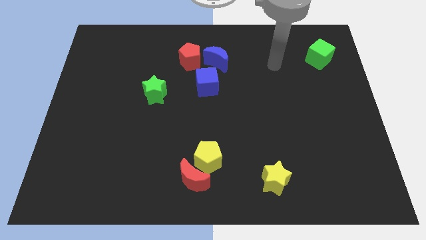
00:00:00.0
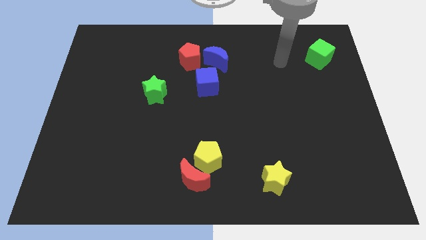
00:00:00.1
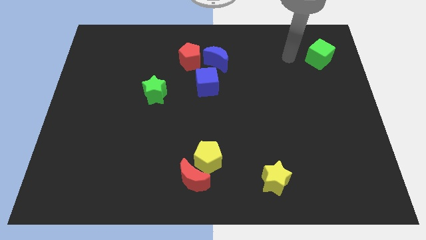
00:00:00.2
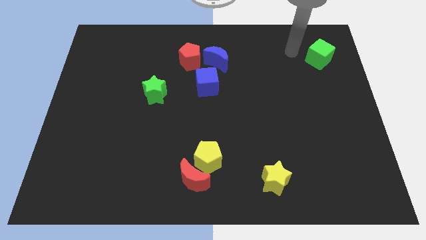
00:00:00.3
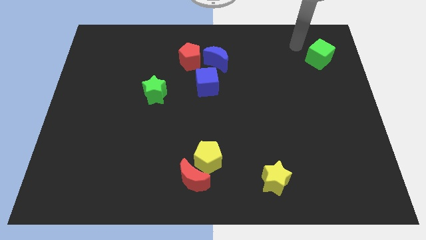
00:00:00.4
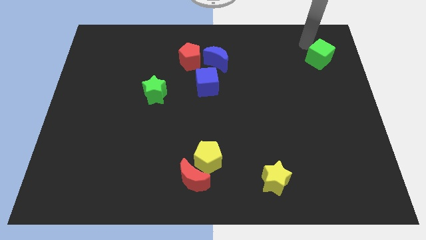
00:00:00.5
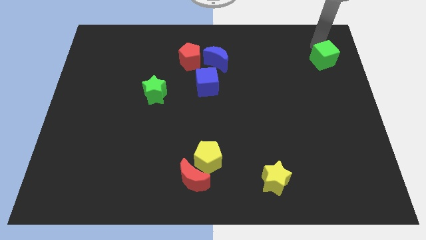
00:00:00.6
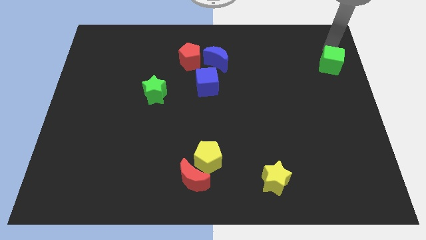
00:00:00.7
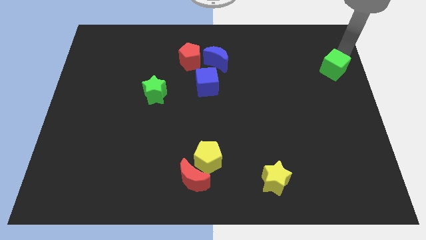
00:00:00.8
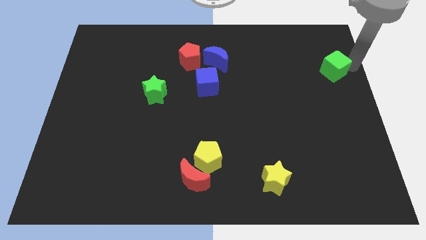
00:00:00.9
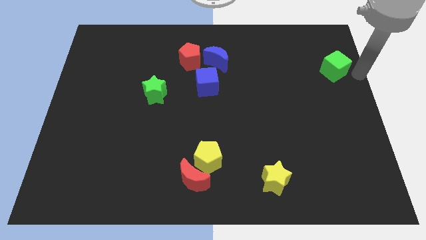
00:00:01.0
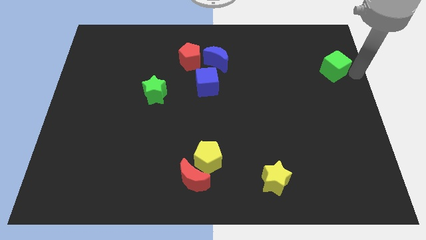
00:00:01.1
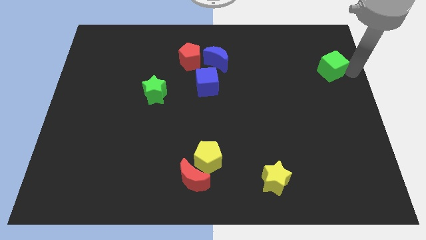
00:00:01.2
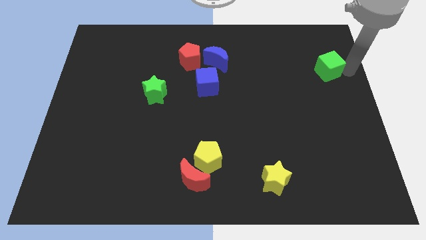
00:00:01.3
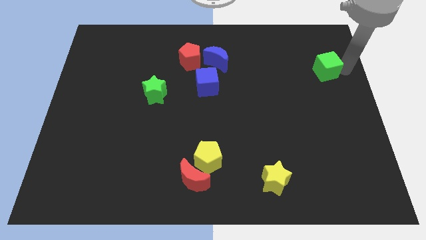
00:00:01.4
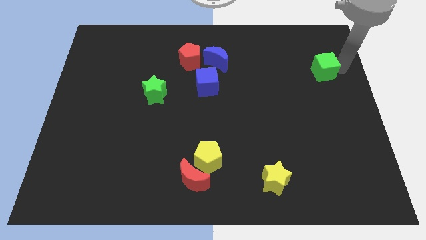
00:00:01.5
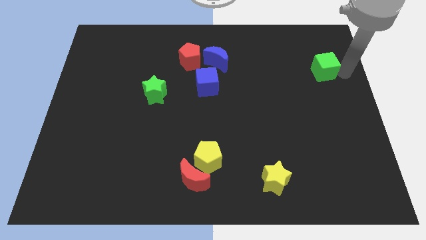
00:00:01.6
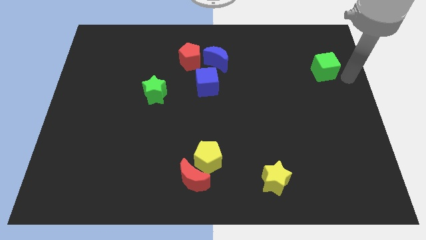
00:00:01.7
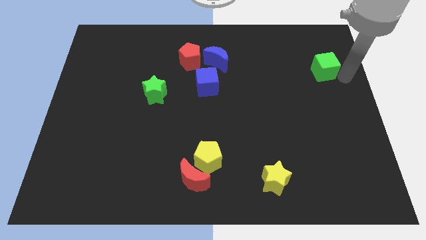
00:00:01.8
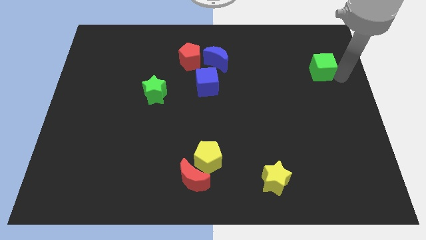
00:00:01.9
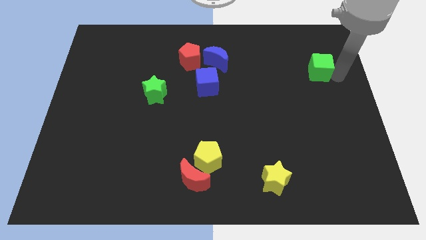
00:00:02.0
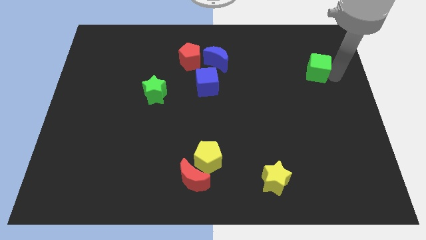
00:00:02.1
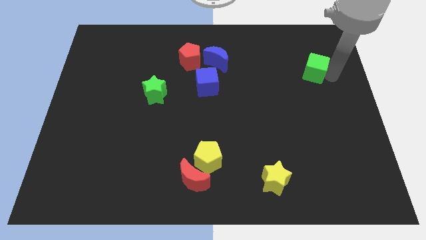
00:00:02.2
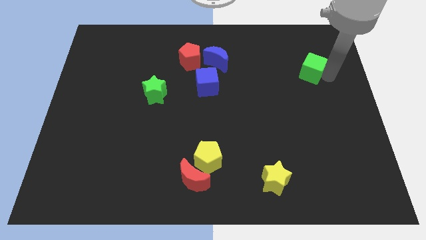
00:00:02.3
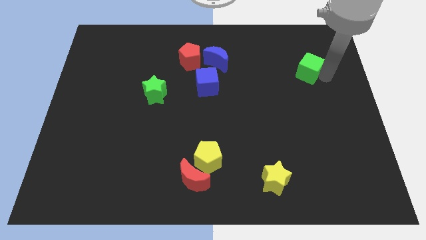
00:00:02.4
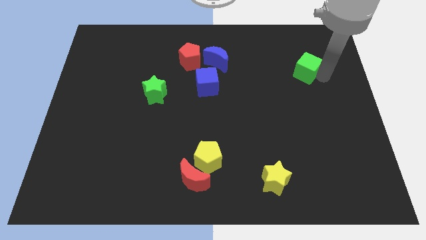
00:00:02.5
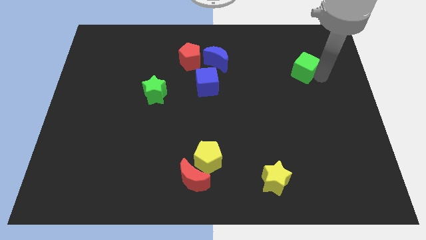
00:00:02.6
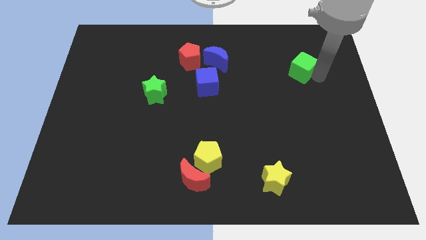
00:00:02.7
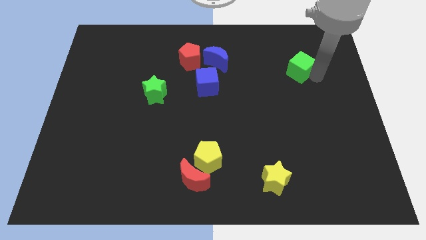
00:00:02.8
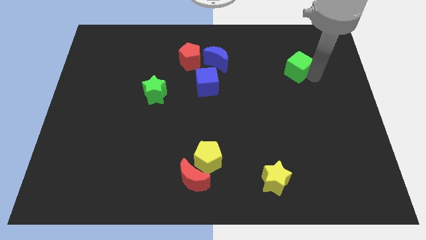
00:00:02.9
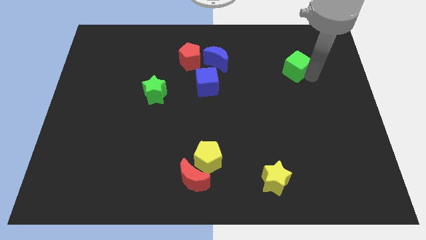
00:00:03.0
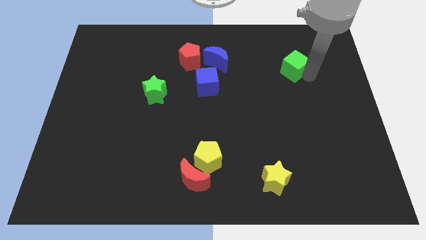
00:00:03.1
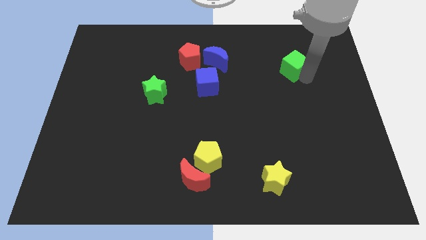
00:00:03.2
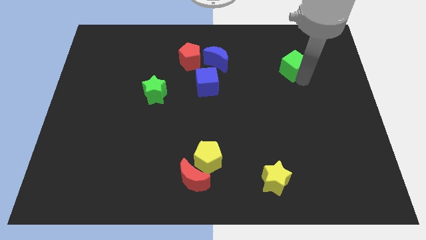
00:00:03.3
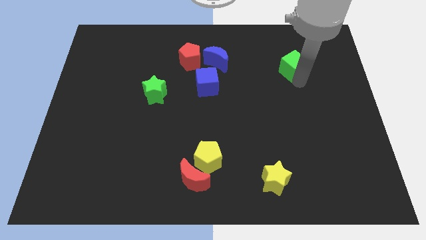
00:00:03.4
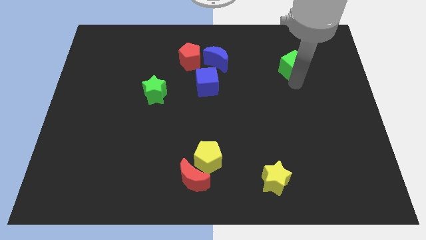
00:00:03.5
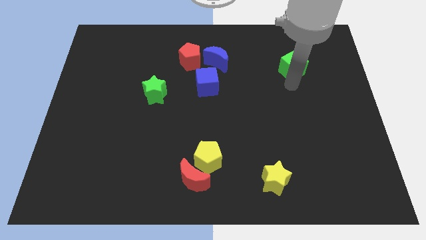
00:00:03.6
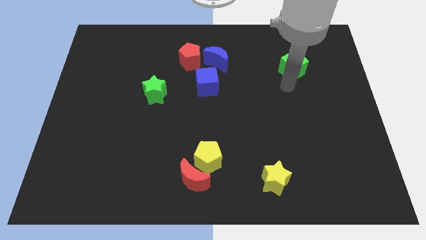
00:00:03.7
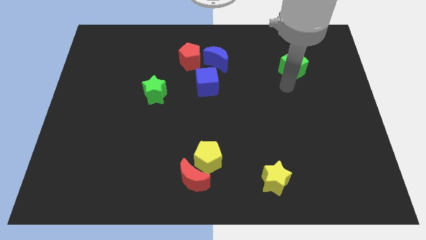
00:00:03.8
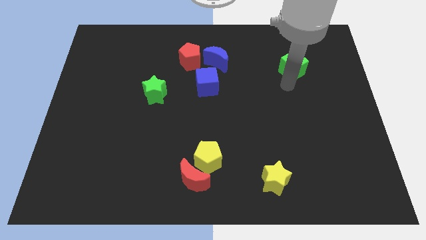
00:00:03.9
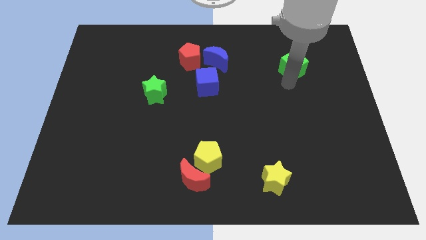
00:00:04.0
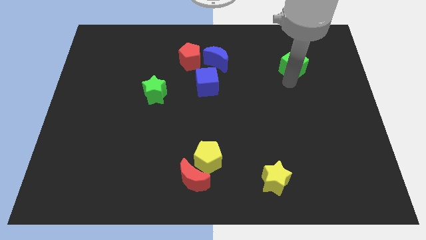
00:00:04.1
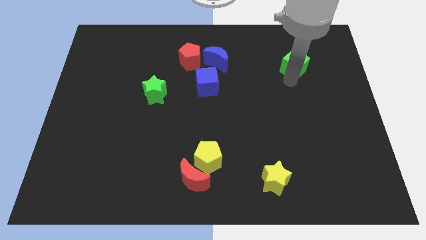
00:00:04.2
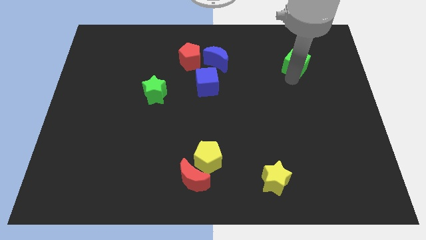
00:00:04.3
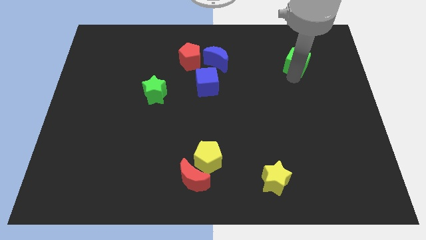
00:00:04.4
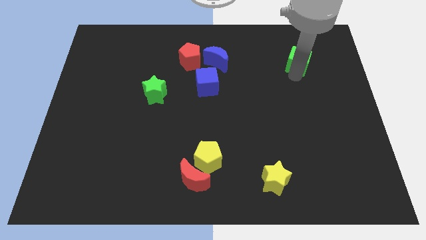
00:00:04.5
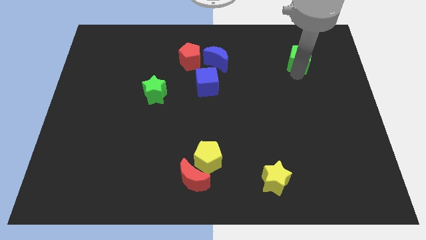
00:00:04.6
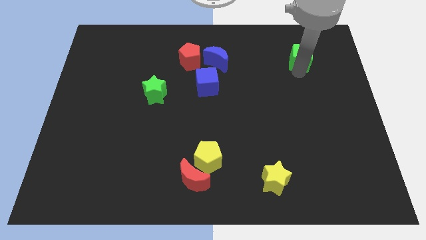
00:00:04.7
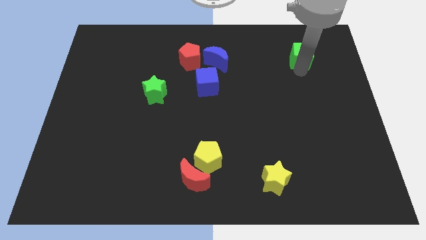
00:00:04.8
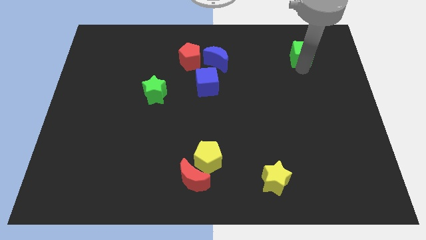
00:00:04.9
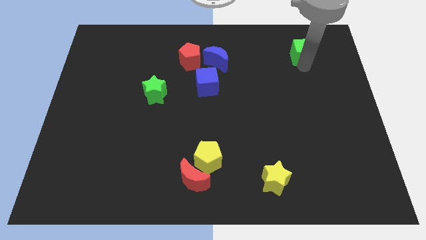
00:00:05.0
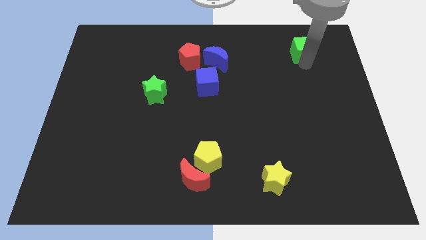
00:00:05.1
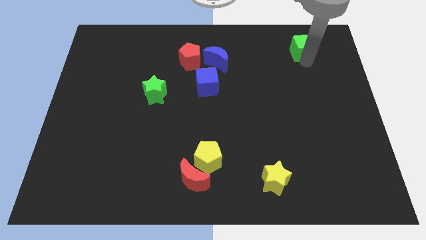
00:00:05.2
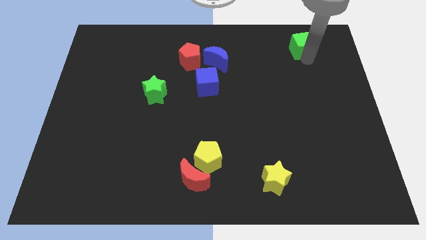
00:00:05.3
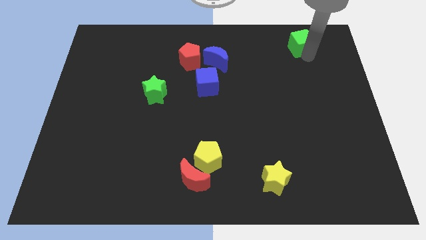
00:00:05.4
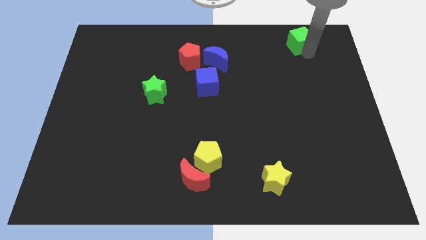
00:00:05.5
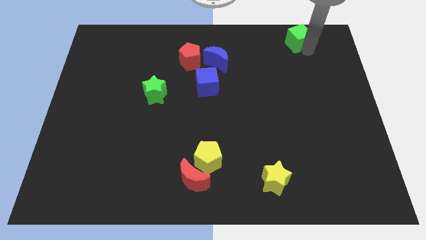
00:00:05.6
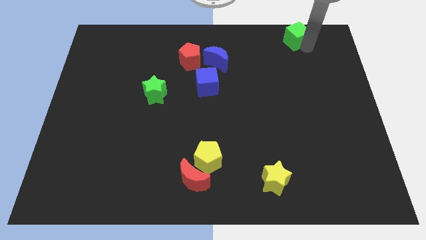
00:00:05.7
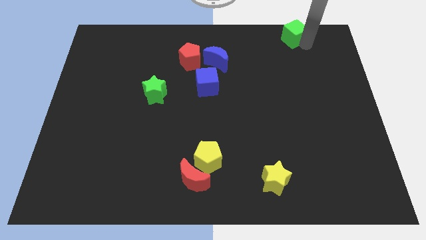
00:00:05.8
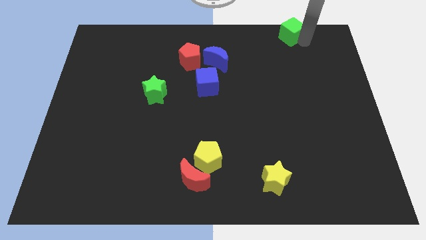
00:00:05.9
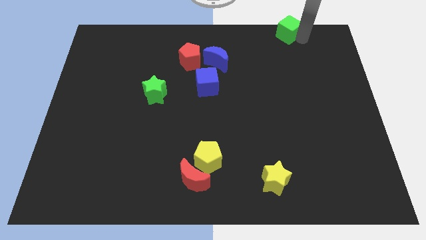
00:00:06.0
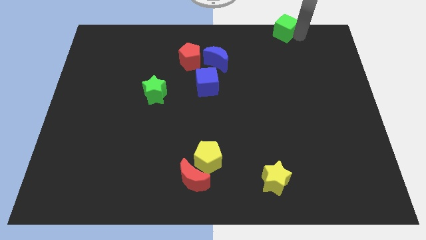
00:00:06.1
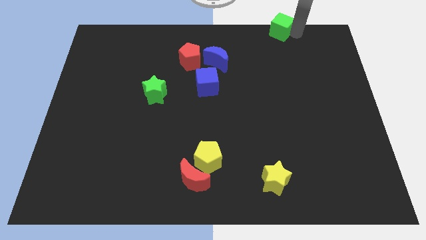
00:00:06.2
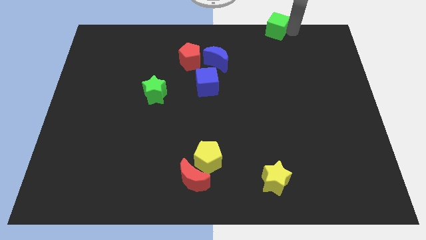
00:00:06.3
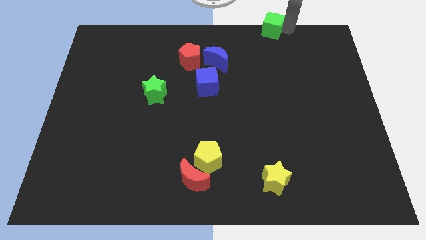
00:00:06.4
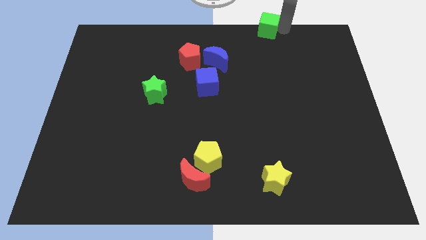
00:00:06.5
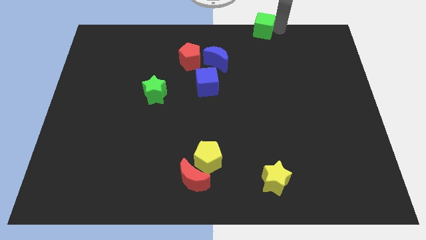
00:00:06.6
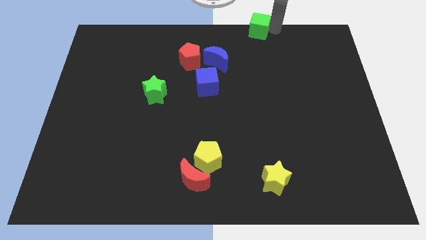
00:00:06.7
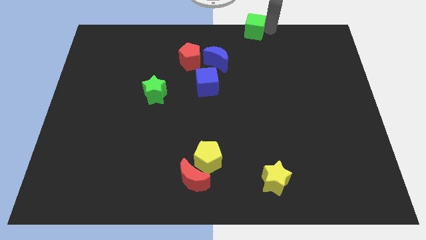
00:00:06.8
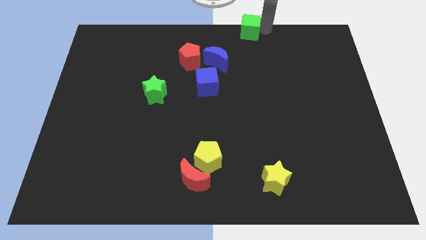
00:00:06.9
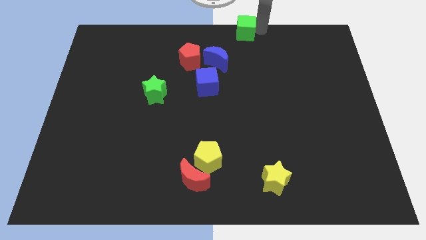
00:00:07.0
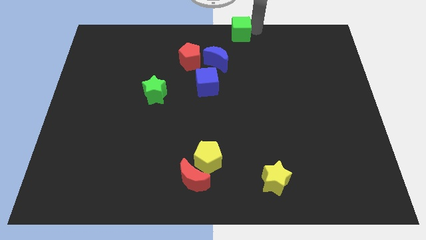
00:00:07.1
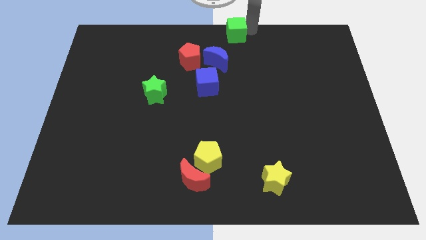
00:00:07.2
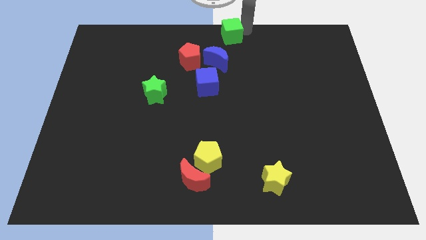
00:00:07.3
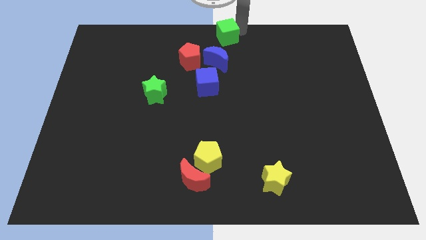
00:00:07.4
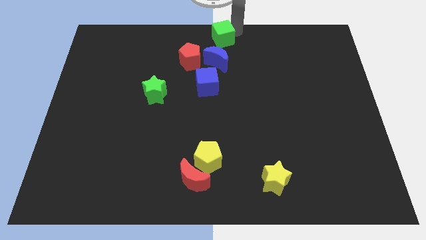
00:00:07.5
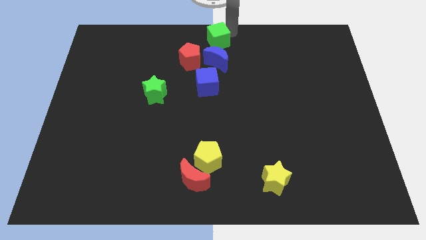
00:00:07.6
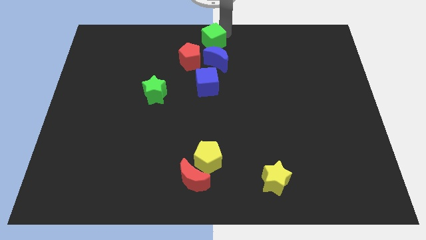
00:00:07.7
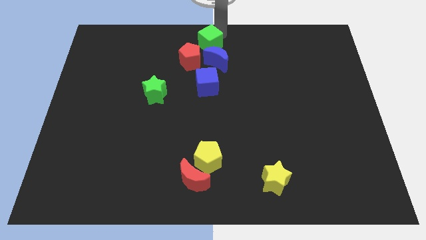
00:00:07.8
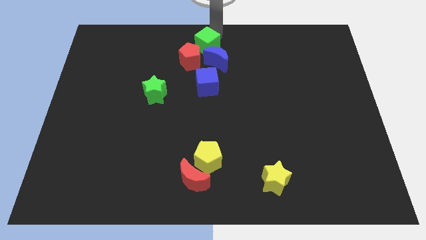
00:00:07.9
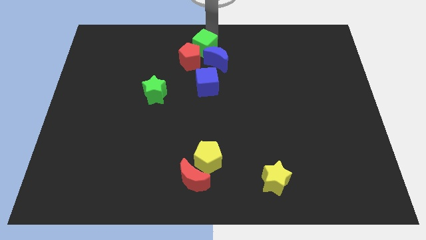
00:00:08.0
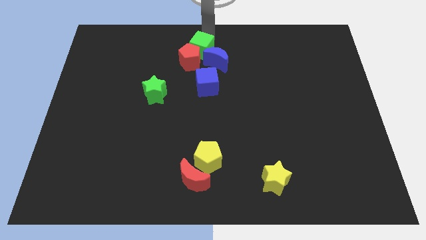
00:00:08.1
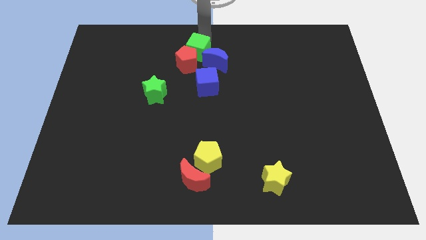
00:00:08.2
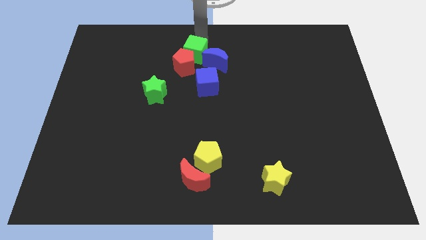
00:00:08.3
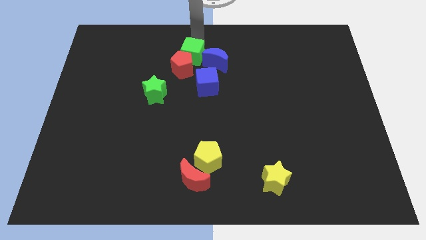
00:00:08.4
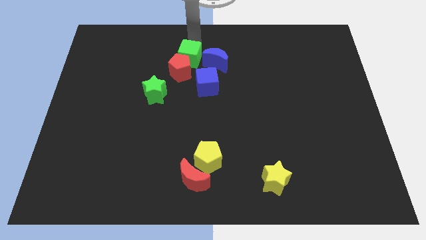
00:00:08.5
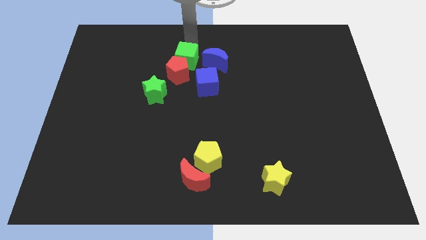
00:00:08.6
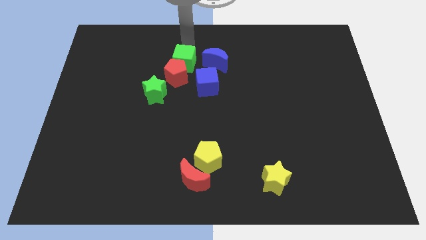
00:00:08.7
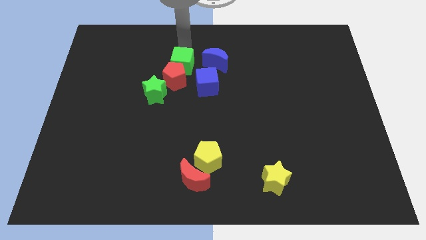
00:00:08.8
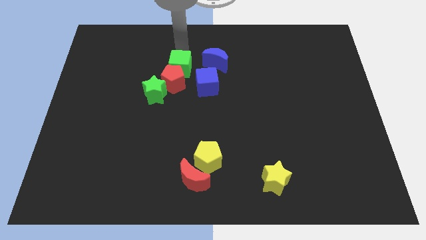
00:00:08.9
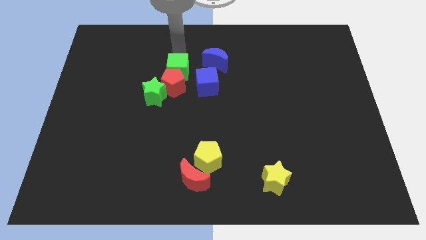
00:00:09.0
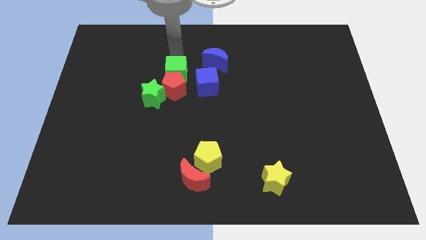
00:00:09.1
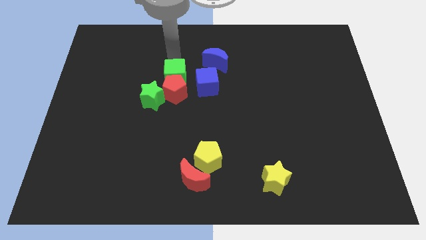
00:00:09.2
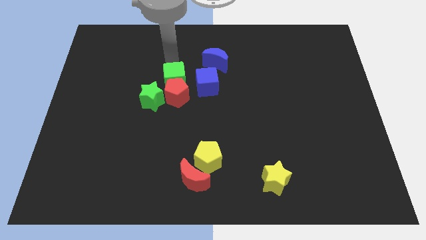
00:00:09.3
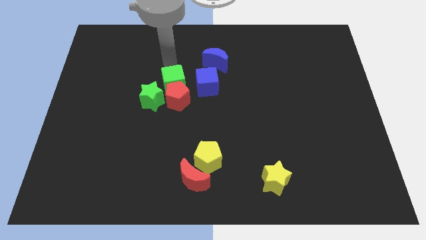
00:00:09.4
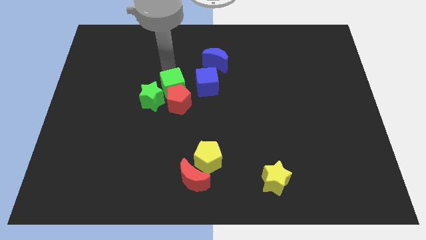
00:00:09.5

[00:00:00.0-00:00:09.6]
slide the green cube to the green star
